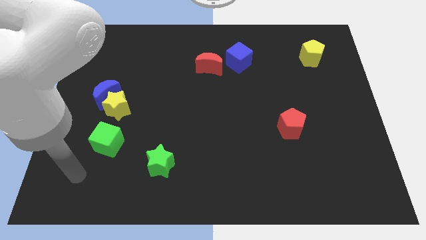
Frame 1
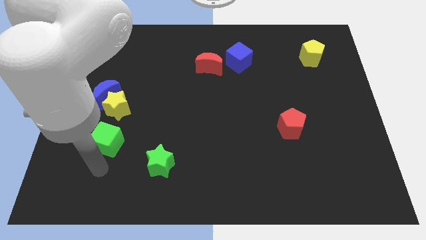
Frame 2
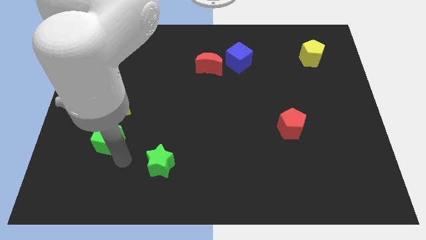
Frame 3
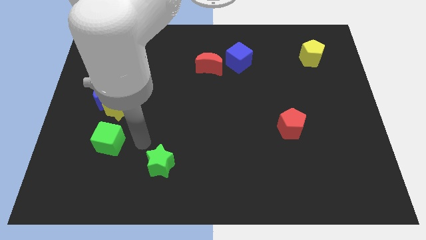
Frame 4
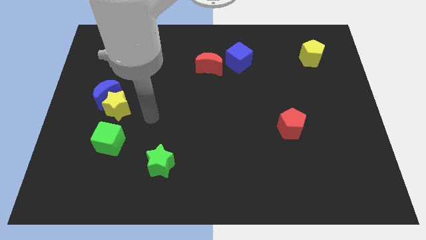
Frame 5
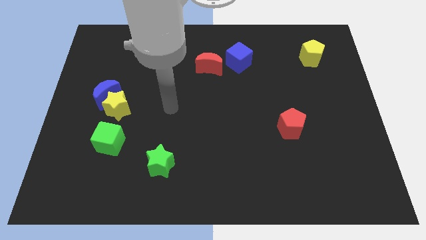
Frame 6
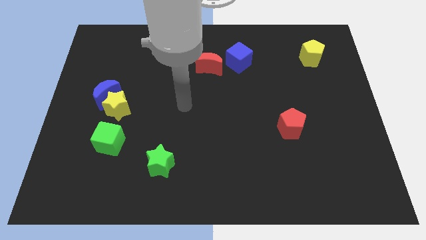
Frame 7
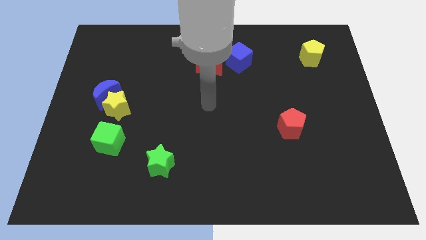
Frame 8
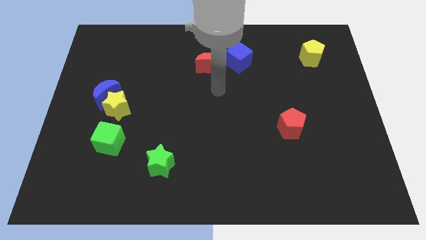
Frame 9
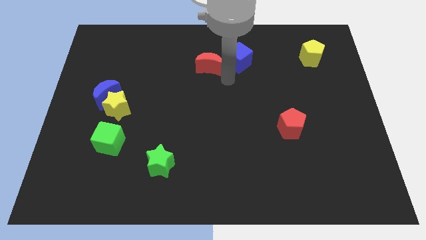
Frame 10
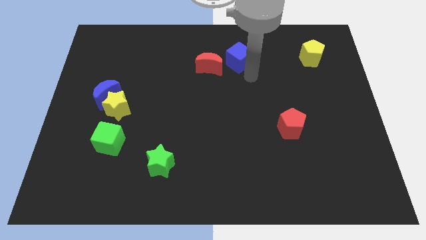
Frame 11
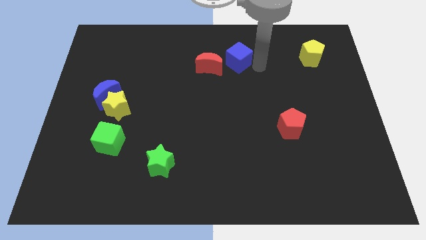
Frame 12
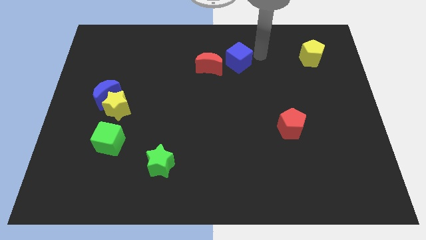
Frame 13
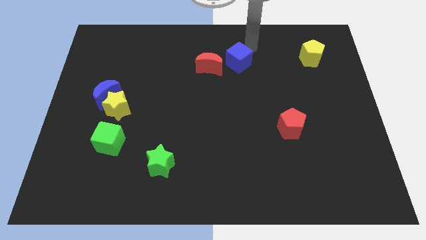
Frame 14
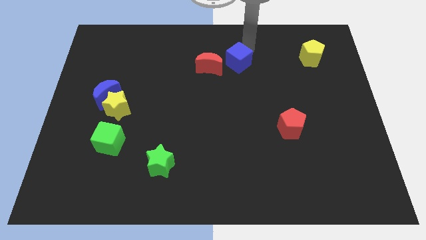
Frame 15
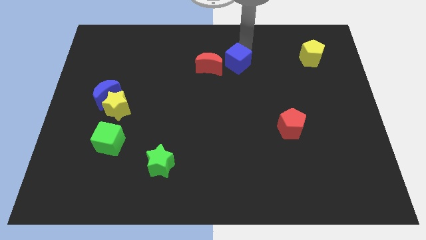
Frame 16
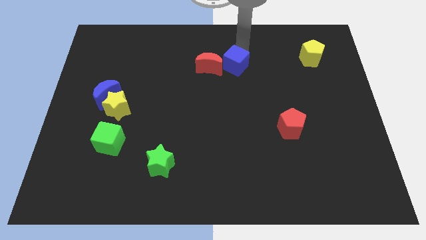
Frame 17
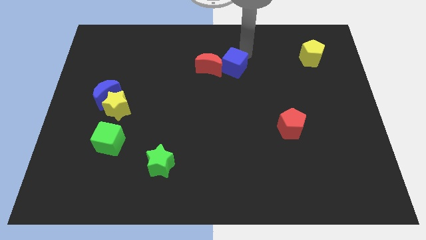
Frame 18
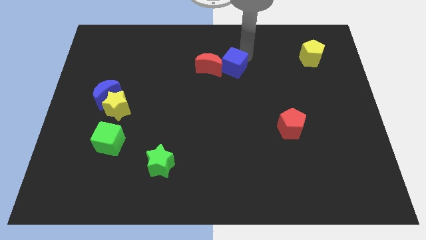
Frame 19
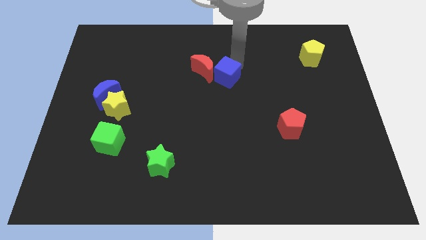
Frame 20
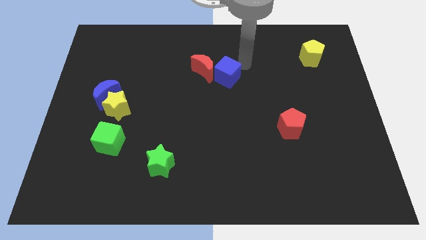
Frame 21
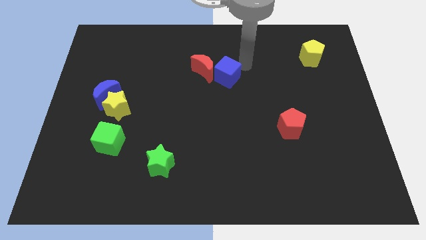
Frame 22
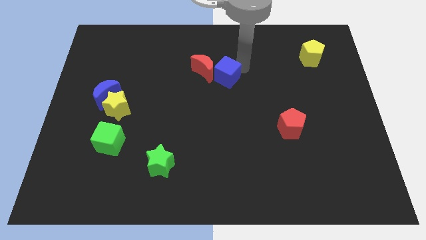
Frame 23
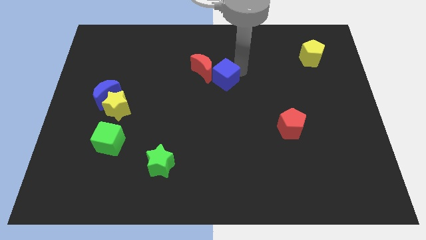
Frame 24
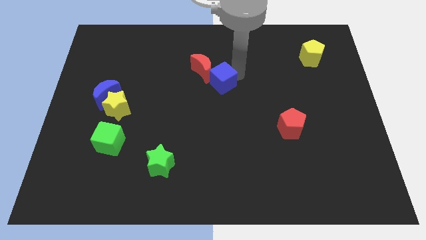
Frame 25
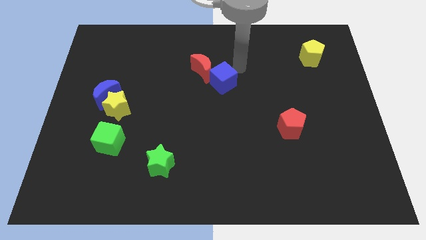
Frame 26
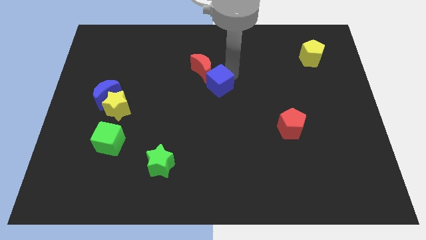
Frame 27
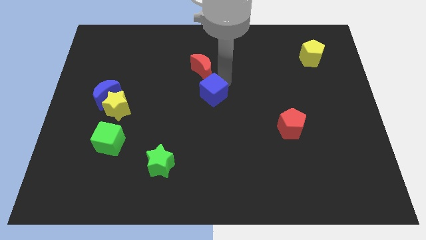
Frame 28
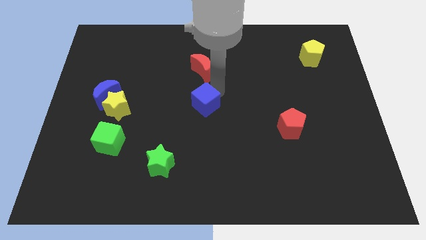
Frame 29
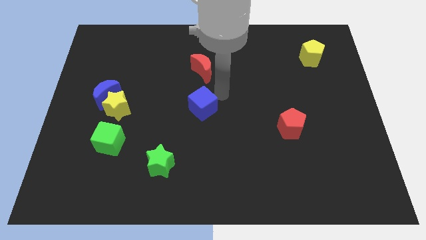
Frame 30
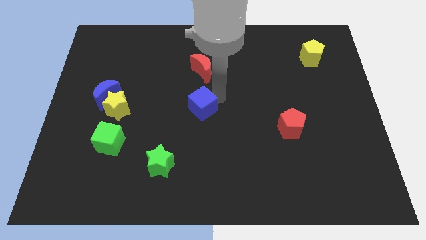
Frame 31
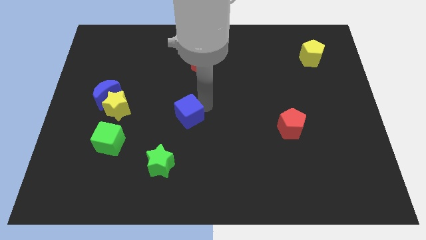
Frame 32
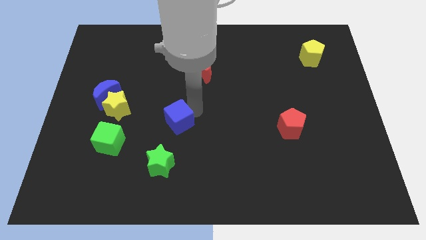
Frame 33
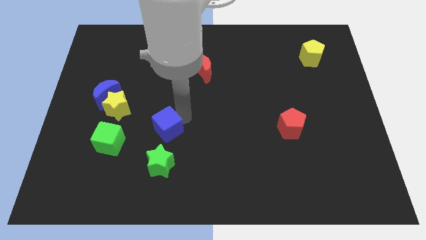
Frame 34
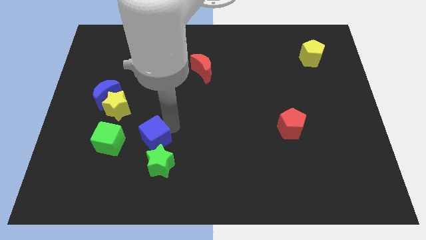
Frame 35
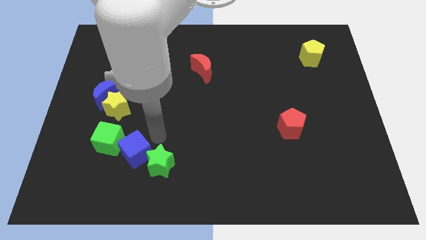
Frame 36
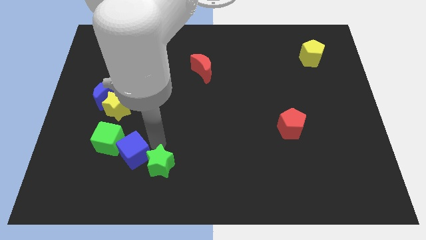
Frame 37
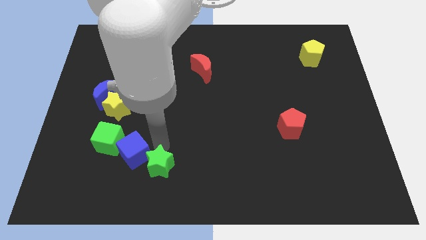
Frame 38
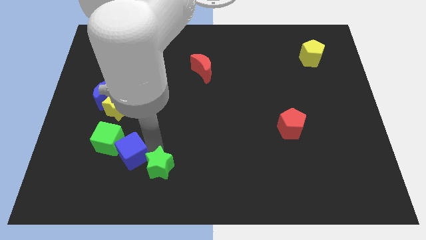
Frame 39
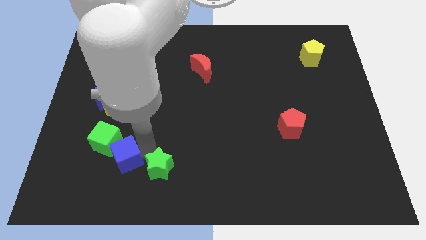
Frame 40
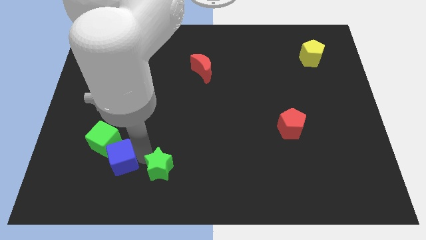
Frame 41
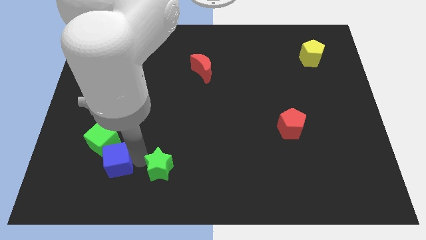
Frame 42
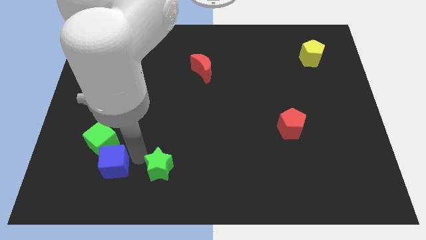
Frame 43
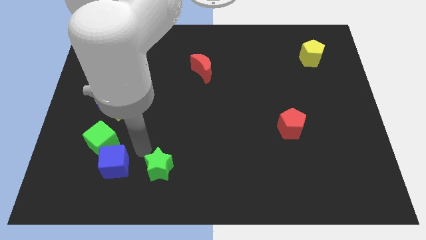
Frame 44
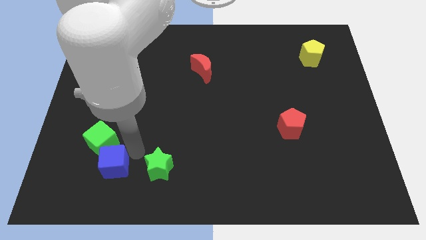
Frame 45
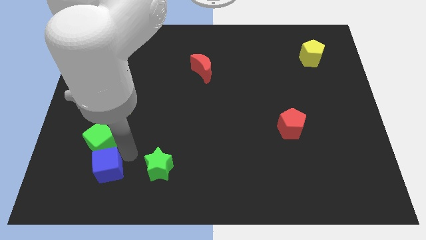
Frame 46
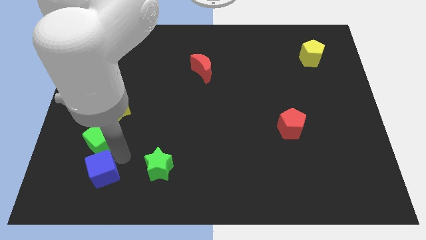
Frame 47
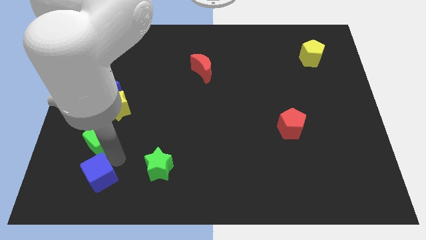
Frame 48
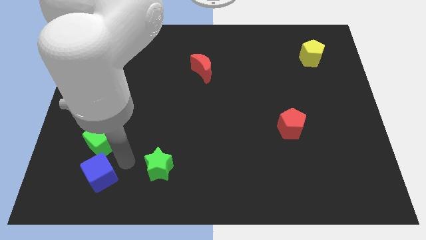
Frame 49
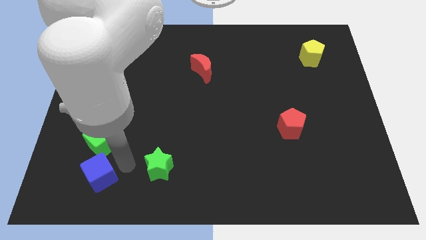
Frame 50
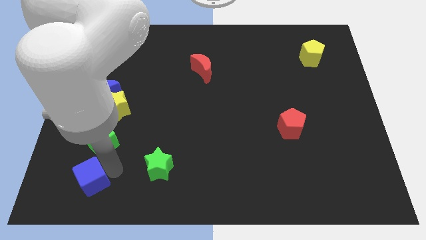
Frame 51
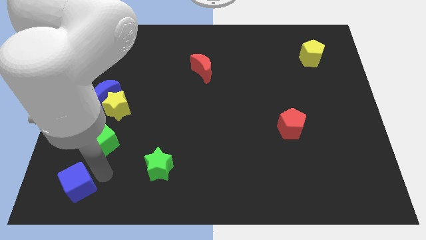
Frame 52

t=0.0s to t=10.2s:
slide the blue cube to the bottom left of the board

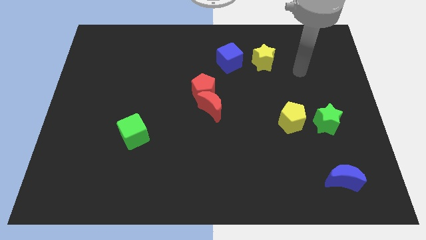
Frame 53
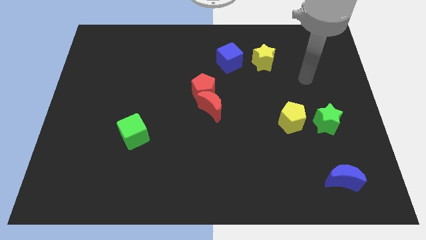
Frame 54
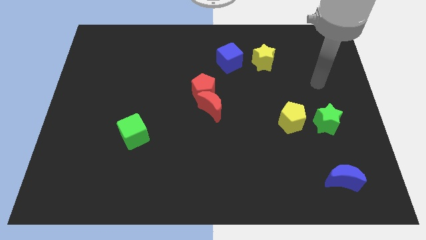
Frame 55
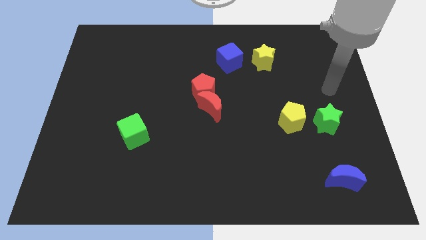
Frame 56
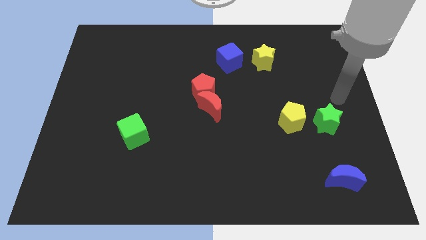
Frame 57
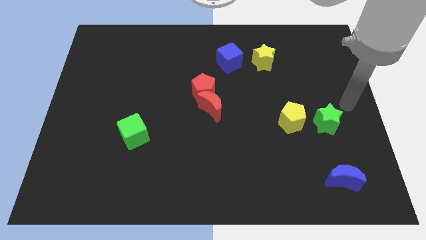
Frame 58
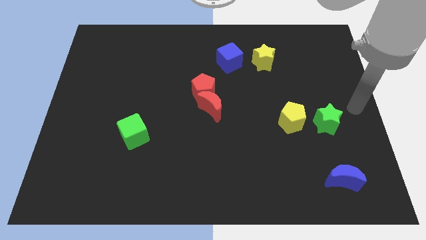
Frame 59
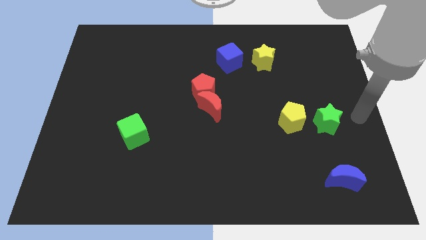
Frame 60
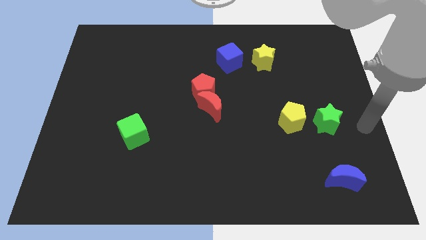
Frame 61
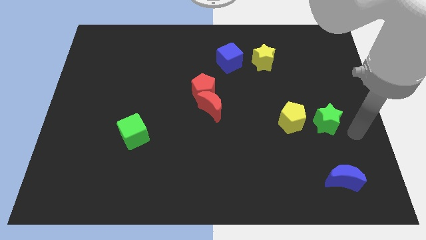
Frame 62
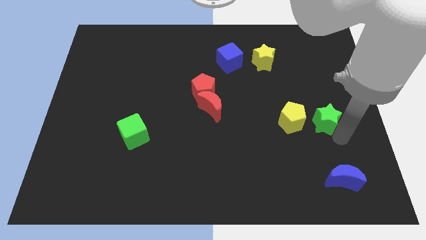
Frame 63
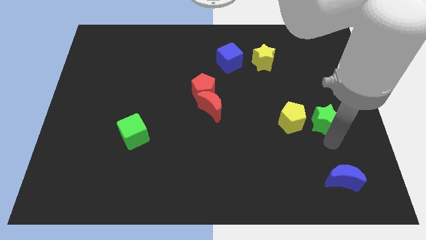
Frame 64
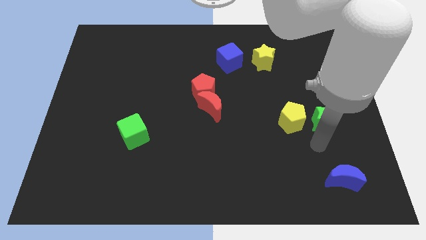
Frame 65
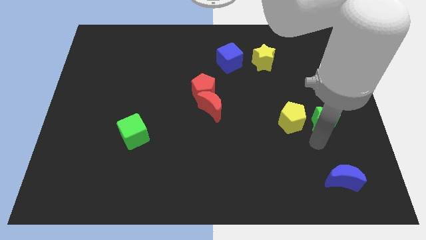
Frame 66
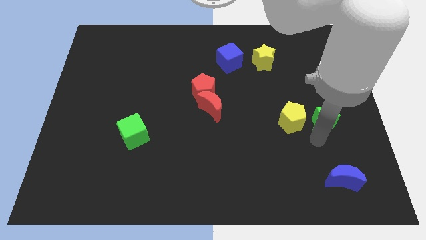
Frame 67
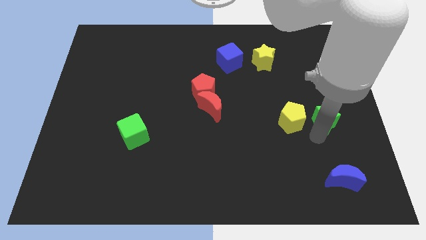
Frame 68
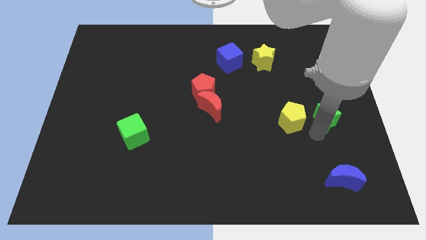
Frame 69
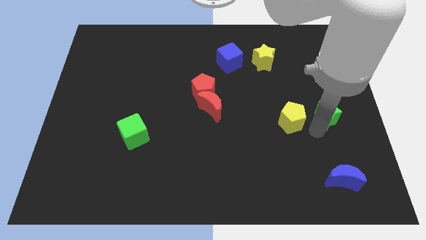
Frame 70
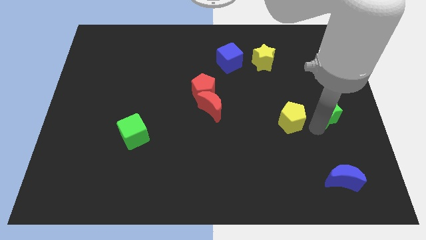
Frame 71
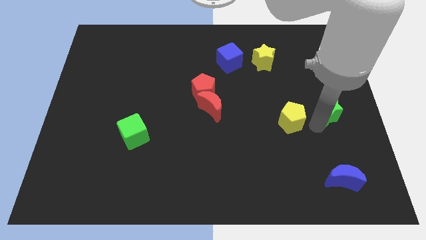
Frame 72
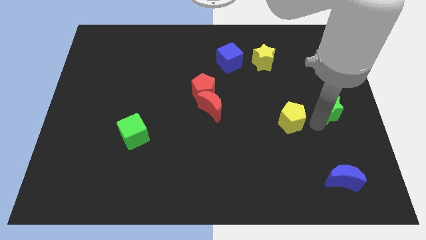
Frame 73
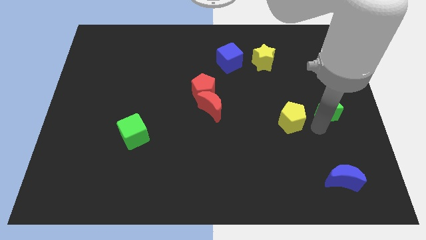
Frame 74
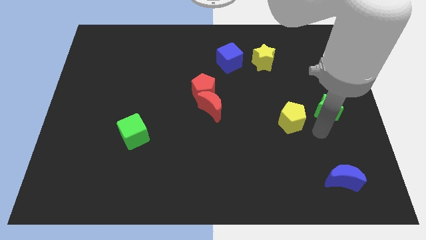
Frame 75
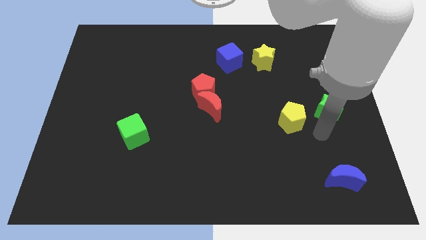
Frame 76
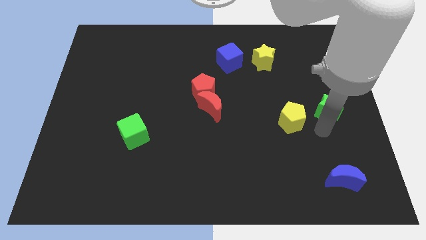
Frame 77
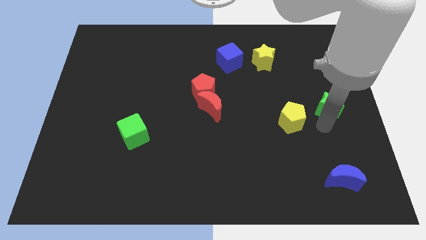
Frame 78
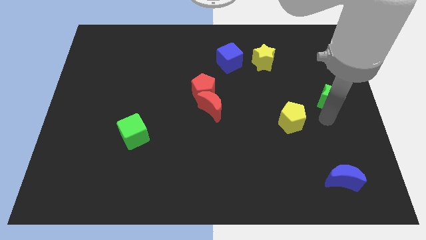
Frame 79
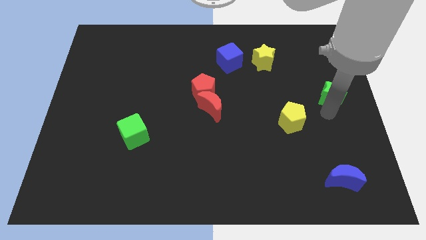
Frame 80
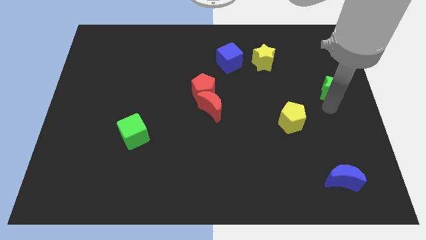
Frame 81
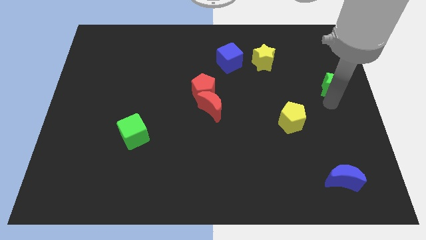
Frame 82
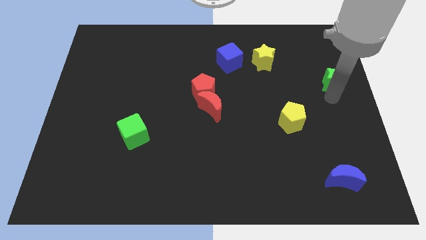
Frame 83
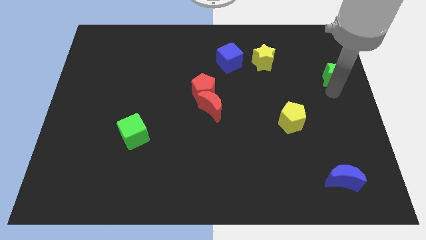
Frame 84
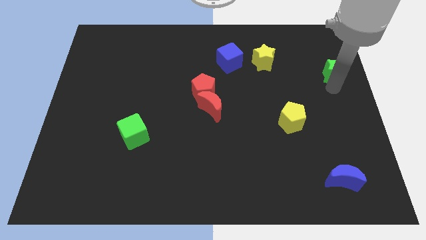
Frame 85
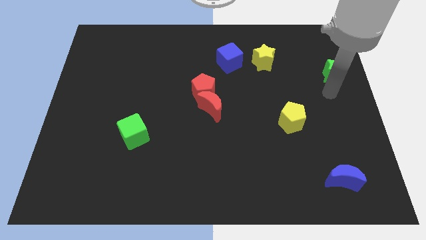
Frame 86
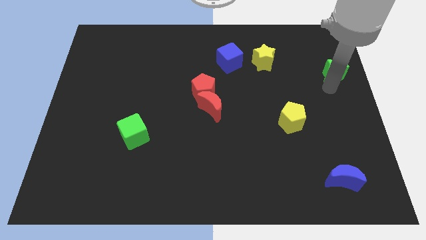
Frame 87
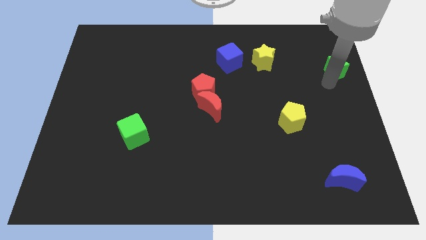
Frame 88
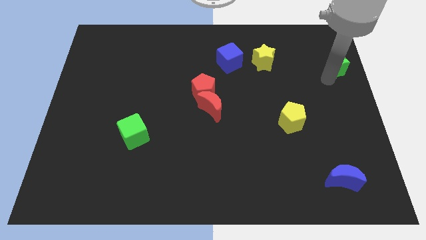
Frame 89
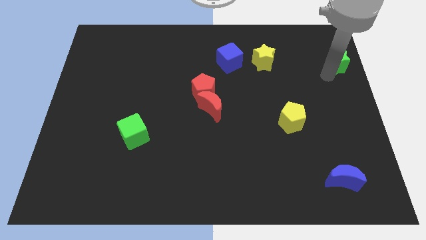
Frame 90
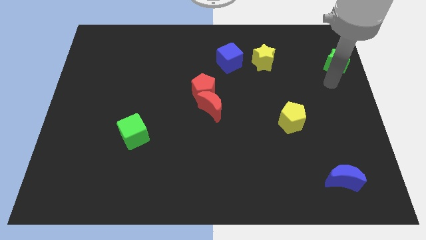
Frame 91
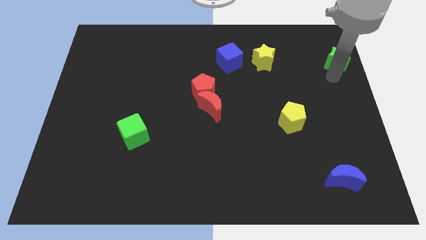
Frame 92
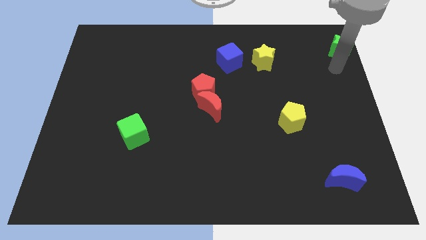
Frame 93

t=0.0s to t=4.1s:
slide the green star to the top right corner
